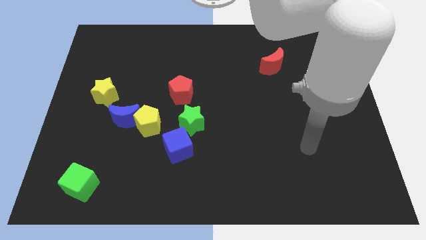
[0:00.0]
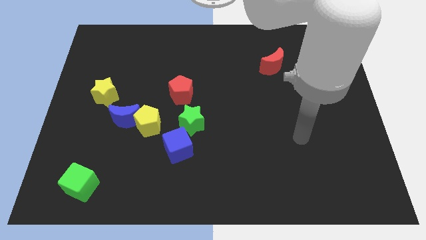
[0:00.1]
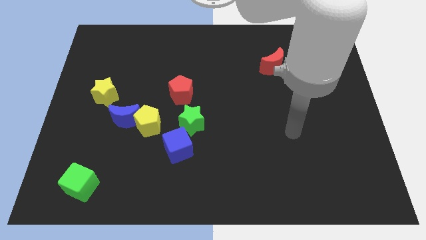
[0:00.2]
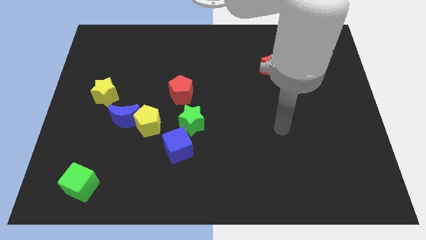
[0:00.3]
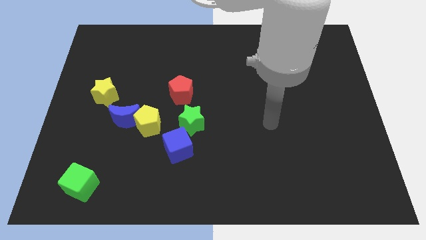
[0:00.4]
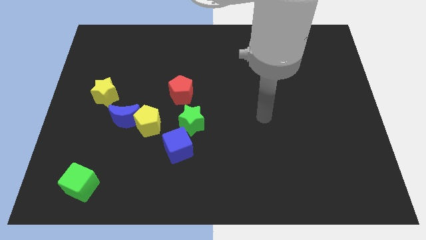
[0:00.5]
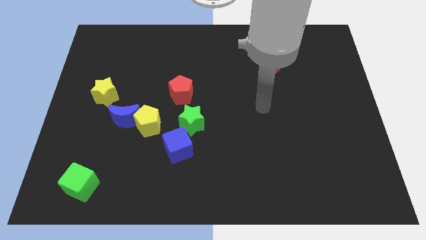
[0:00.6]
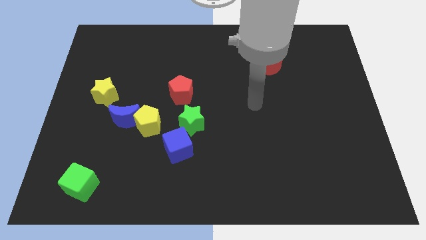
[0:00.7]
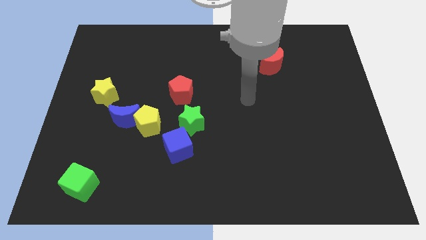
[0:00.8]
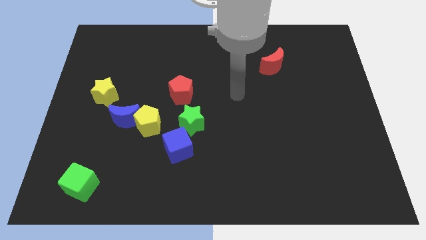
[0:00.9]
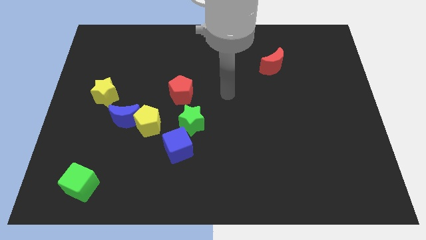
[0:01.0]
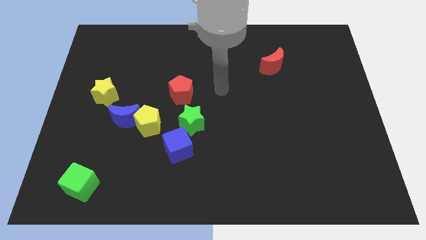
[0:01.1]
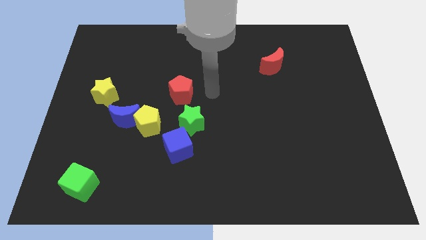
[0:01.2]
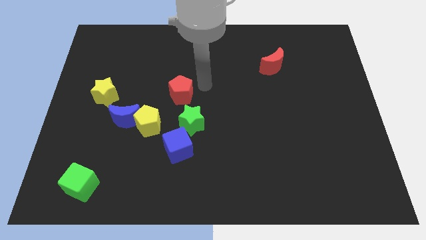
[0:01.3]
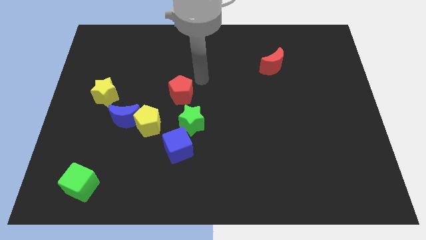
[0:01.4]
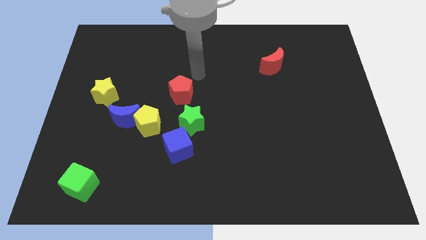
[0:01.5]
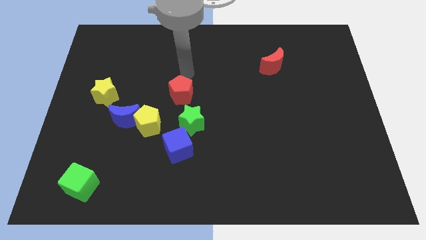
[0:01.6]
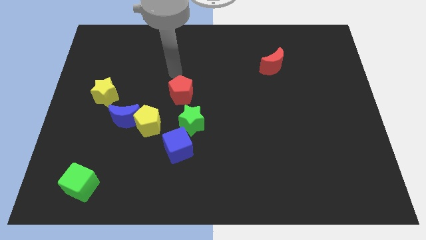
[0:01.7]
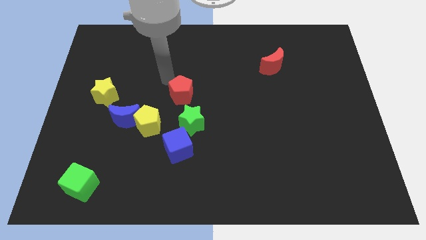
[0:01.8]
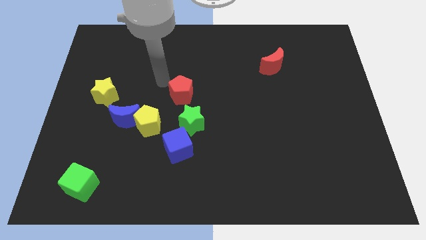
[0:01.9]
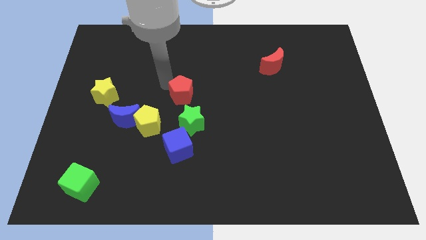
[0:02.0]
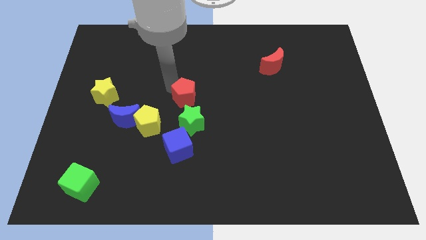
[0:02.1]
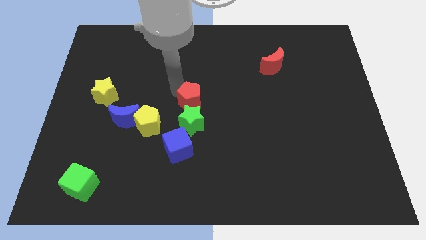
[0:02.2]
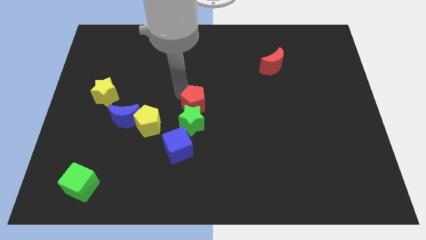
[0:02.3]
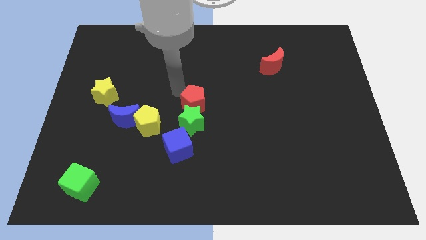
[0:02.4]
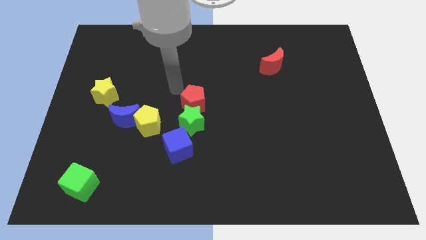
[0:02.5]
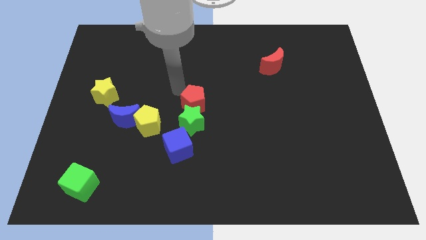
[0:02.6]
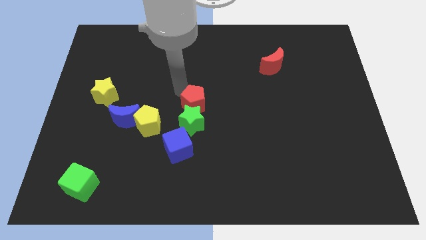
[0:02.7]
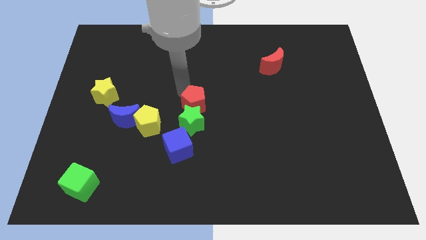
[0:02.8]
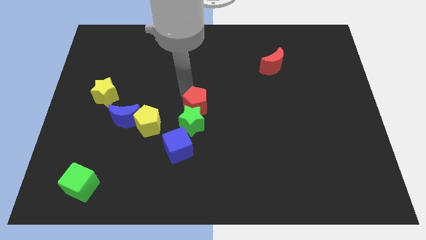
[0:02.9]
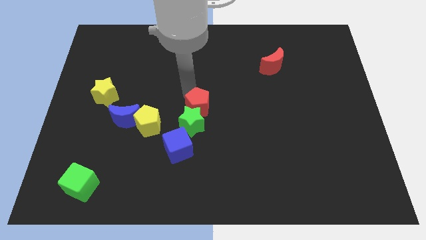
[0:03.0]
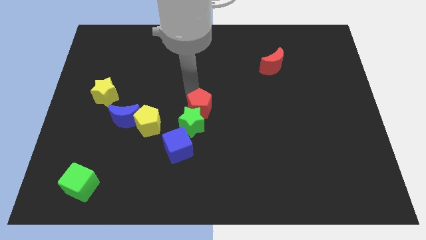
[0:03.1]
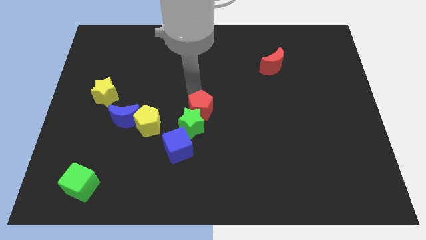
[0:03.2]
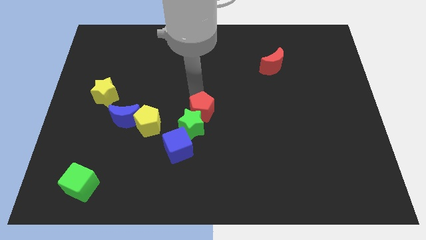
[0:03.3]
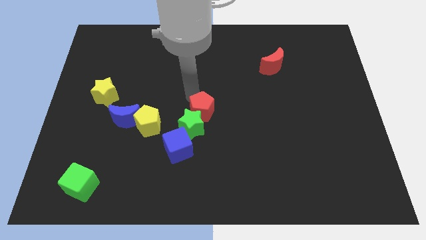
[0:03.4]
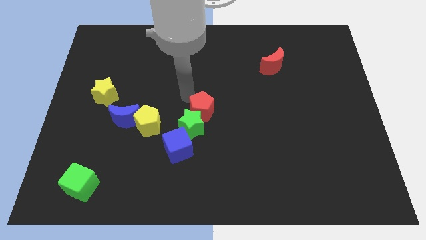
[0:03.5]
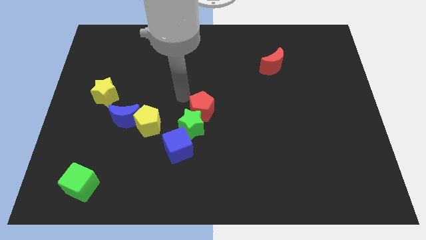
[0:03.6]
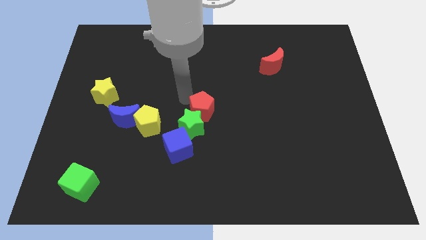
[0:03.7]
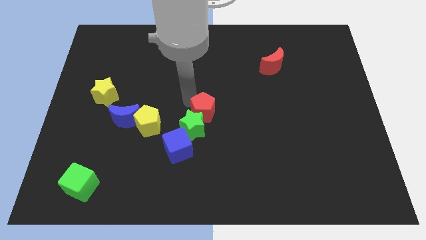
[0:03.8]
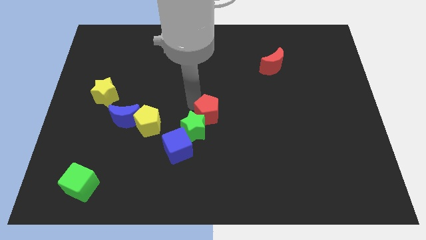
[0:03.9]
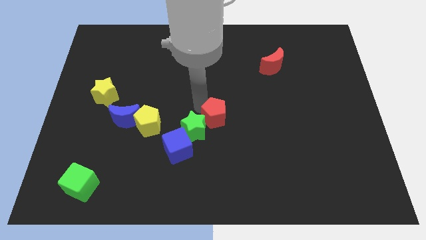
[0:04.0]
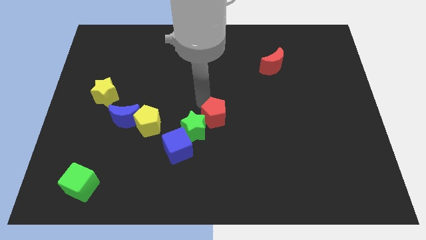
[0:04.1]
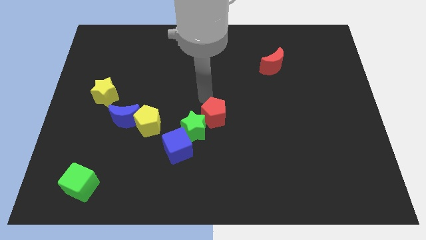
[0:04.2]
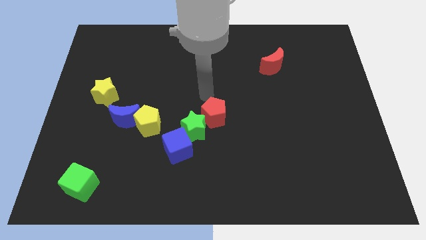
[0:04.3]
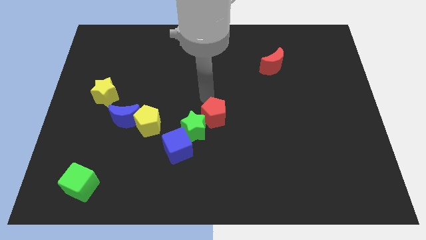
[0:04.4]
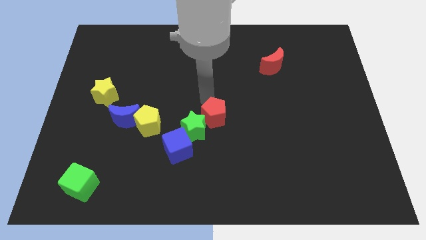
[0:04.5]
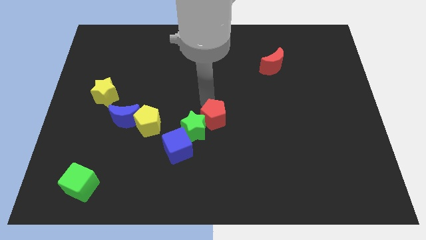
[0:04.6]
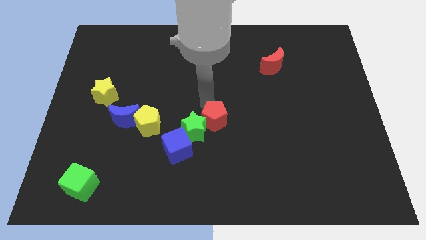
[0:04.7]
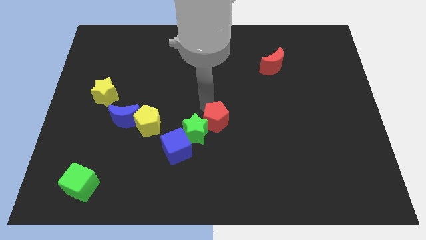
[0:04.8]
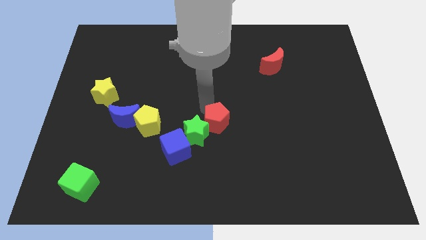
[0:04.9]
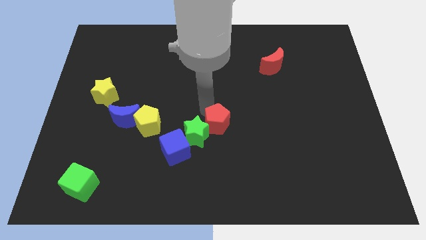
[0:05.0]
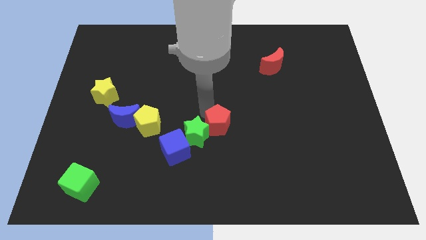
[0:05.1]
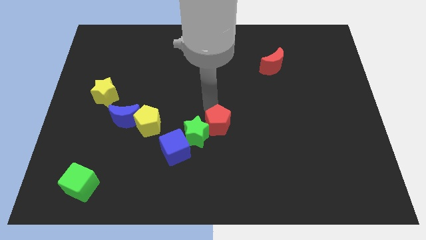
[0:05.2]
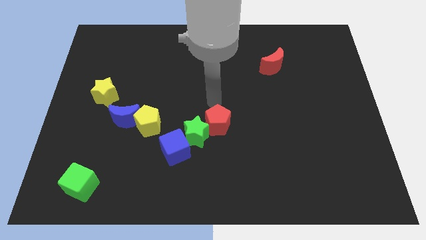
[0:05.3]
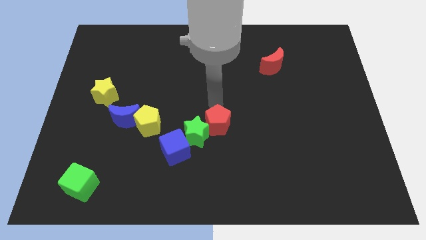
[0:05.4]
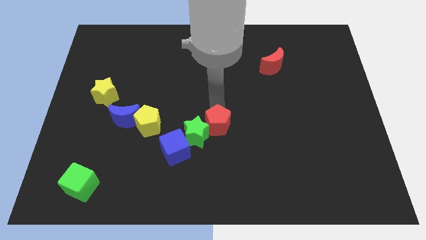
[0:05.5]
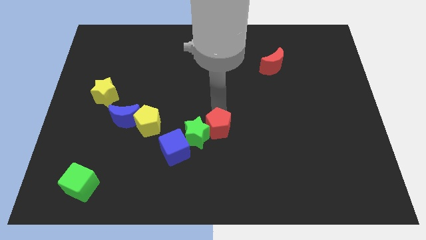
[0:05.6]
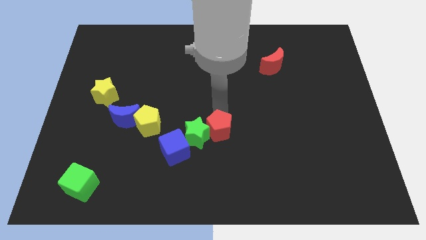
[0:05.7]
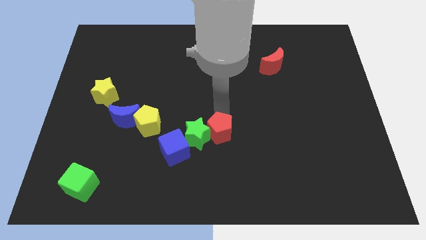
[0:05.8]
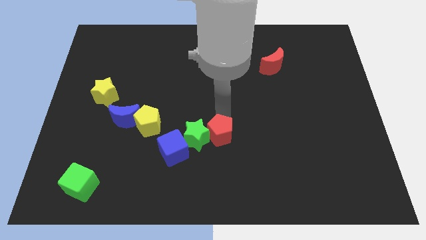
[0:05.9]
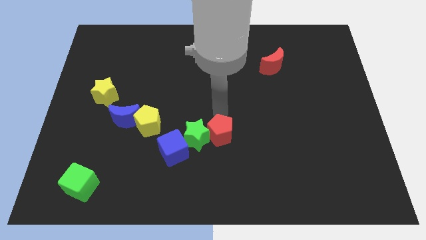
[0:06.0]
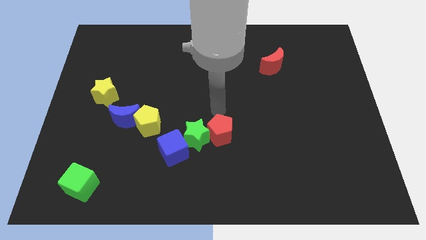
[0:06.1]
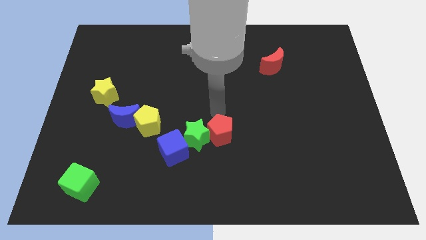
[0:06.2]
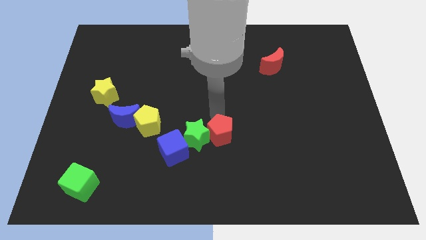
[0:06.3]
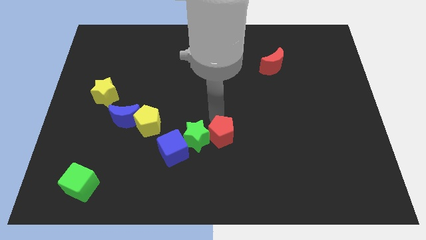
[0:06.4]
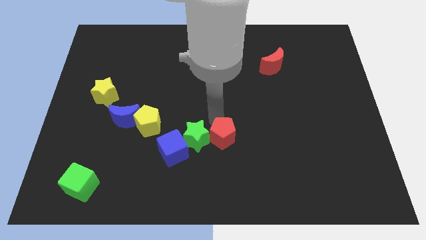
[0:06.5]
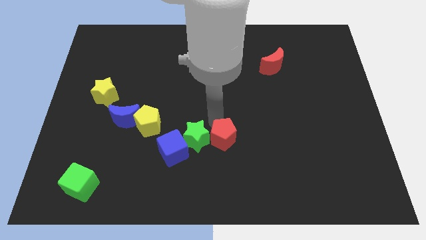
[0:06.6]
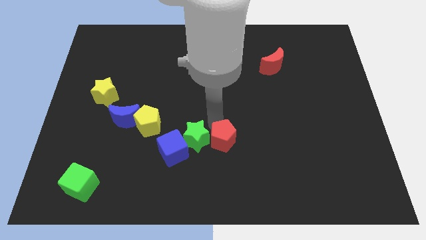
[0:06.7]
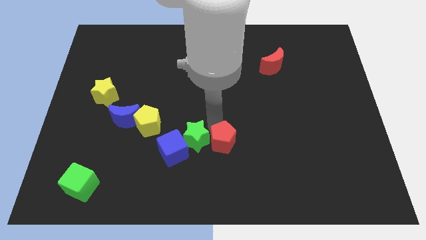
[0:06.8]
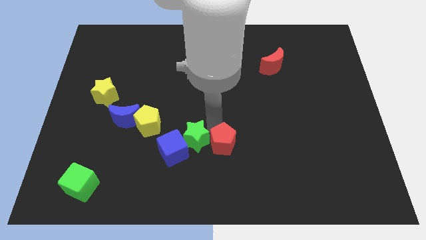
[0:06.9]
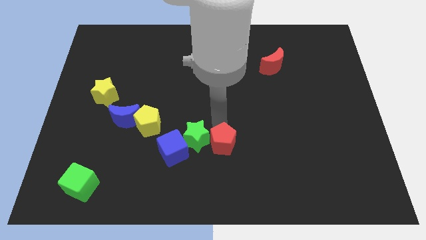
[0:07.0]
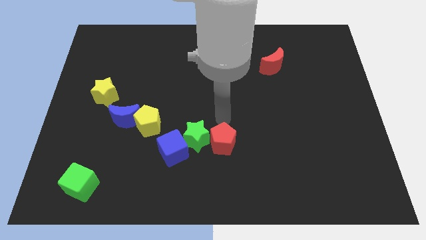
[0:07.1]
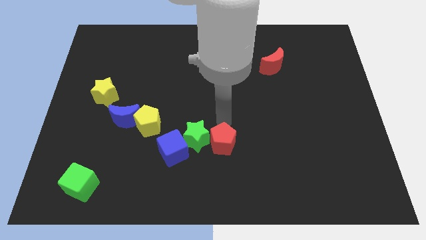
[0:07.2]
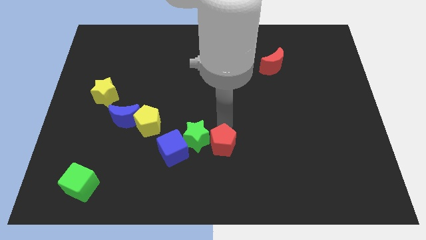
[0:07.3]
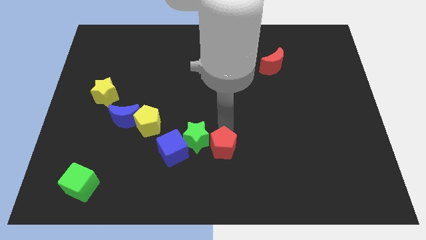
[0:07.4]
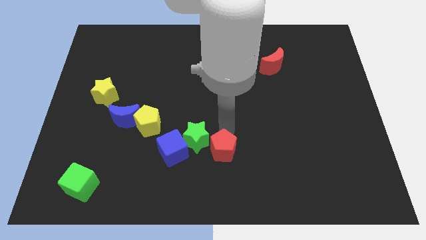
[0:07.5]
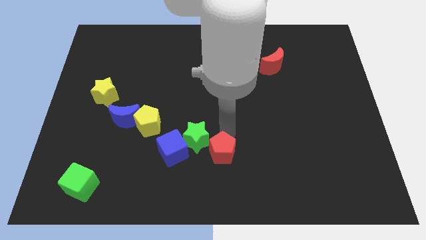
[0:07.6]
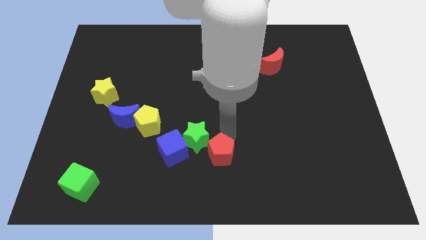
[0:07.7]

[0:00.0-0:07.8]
push the red pentagon to the bottom side
